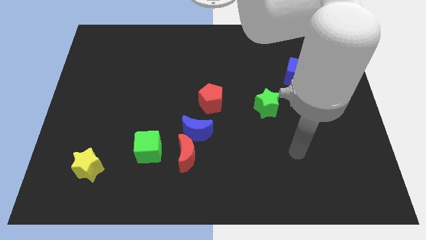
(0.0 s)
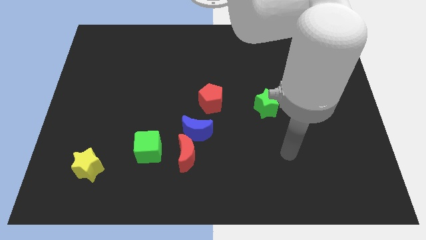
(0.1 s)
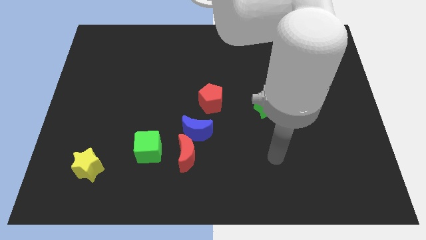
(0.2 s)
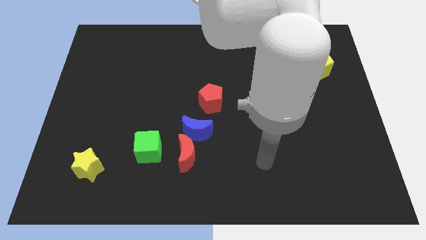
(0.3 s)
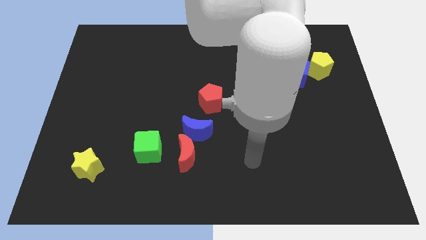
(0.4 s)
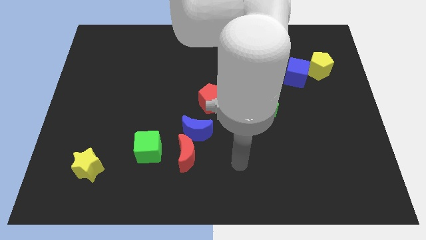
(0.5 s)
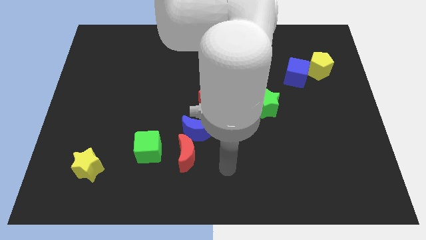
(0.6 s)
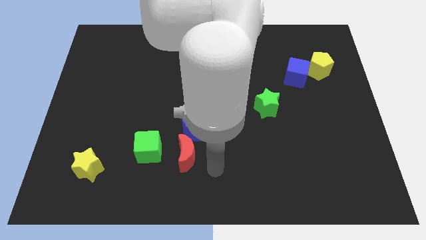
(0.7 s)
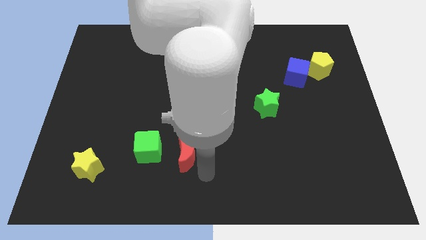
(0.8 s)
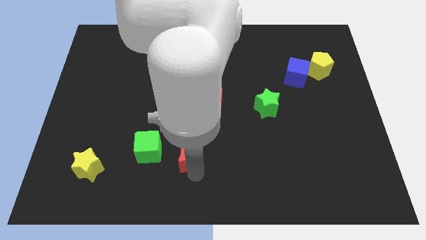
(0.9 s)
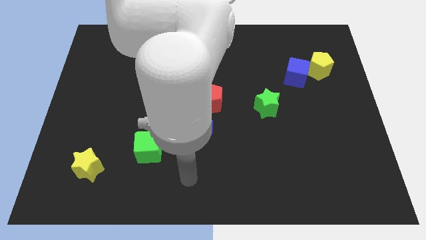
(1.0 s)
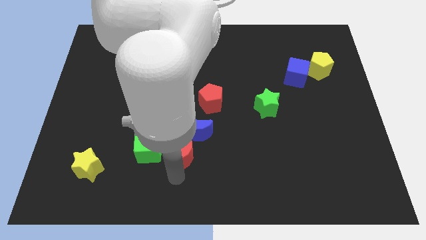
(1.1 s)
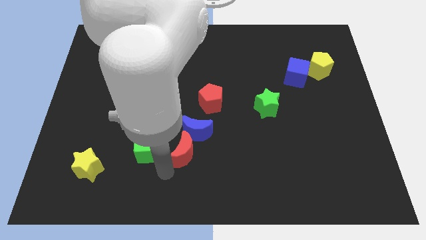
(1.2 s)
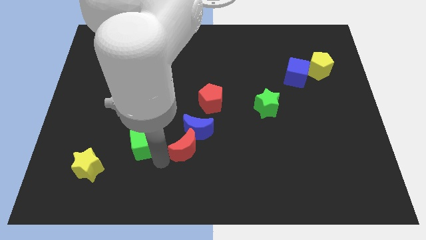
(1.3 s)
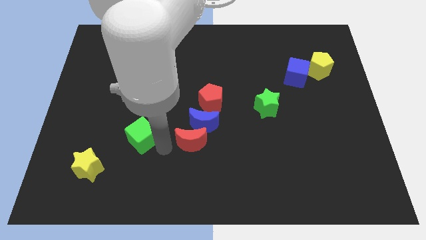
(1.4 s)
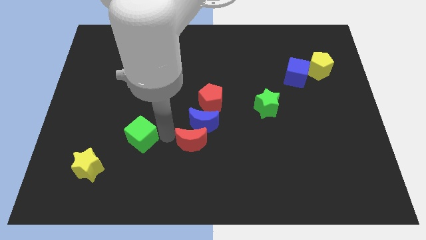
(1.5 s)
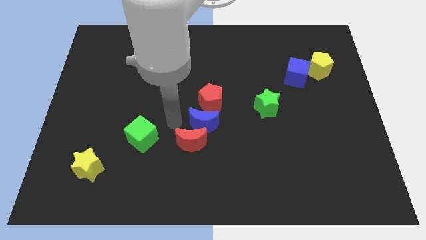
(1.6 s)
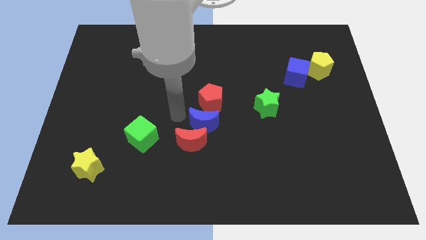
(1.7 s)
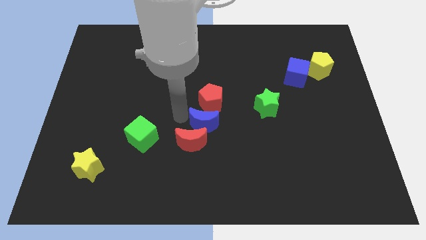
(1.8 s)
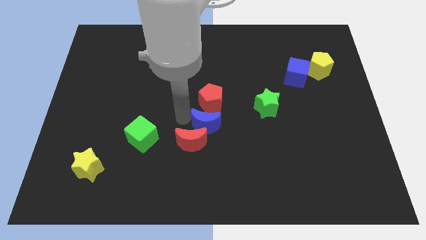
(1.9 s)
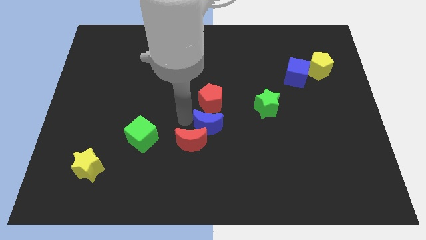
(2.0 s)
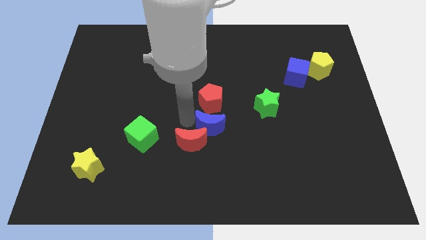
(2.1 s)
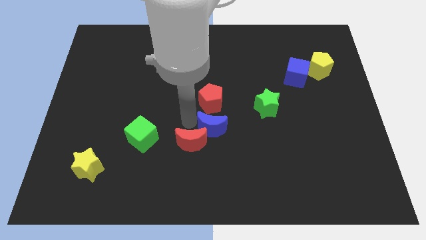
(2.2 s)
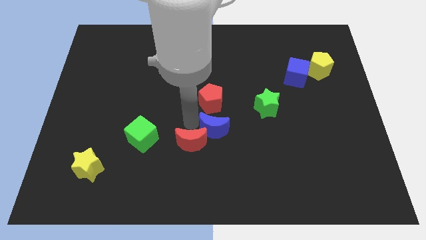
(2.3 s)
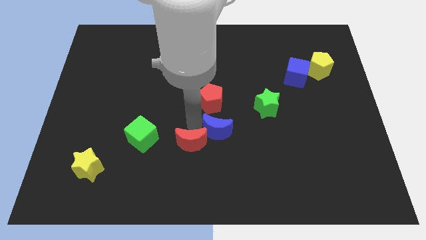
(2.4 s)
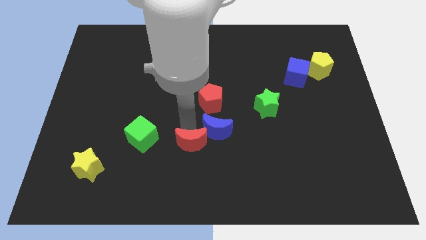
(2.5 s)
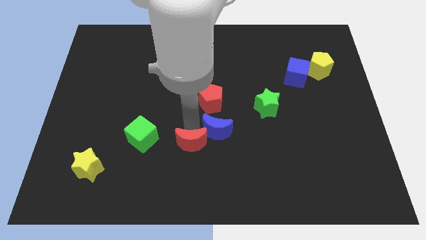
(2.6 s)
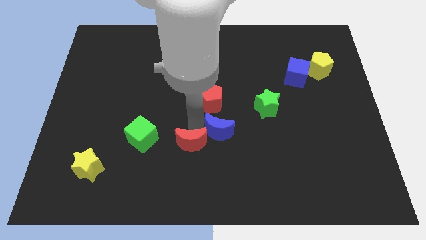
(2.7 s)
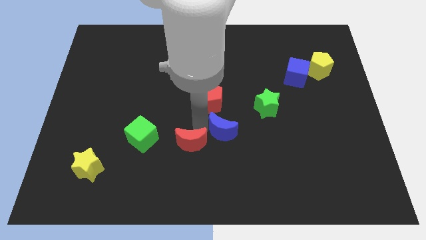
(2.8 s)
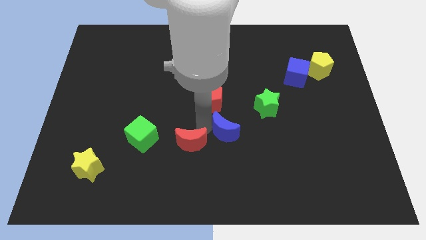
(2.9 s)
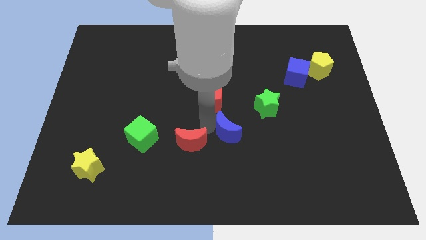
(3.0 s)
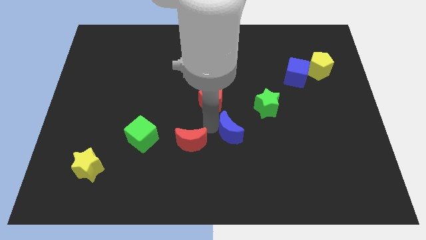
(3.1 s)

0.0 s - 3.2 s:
move the blue moon right a bit

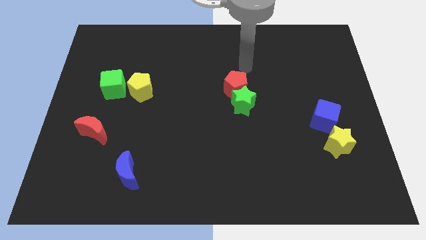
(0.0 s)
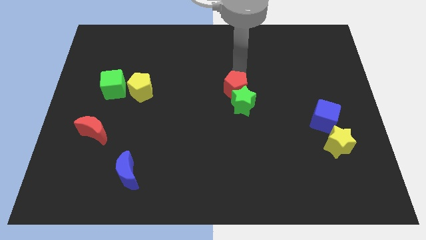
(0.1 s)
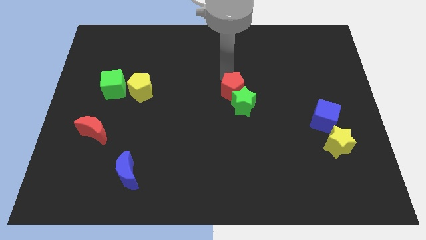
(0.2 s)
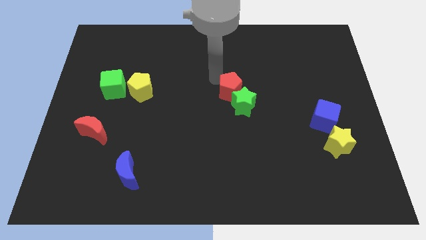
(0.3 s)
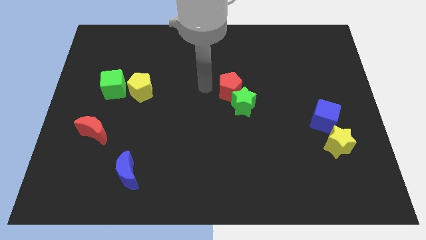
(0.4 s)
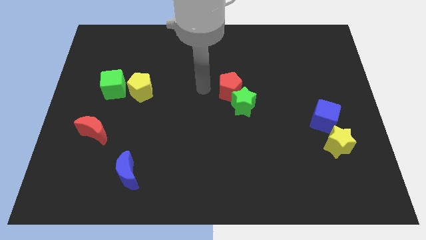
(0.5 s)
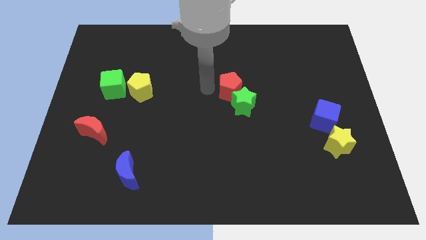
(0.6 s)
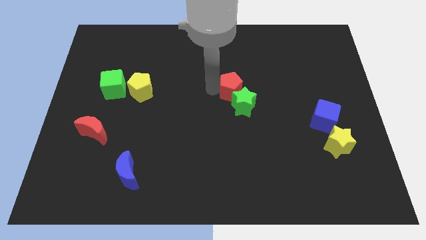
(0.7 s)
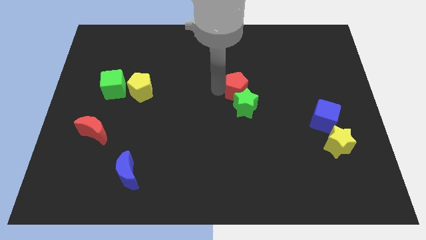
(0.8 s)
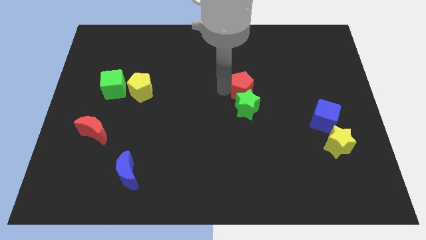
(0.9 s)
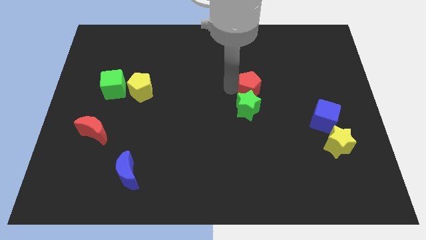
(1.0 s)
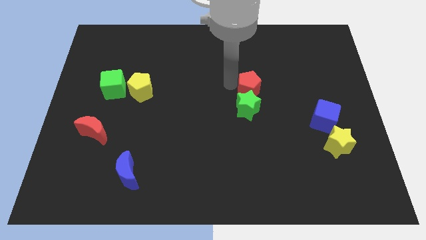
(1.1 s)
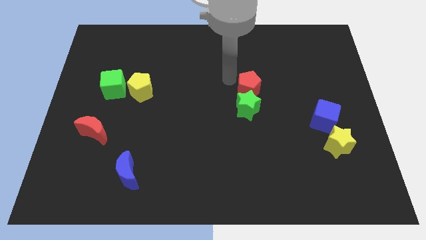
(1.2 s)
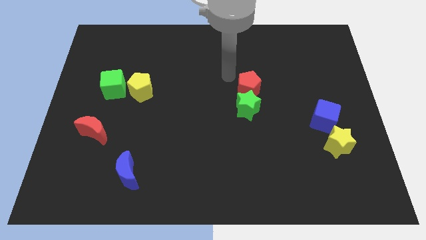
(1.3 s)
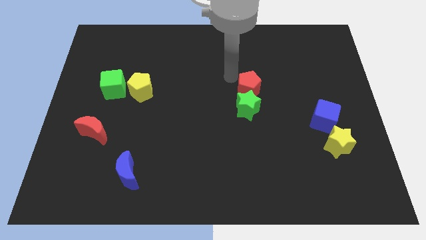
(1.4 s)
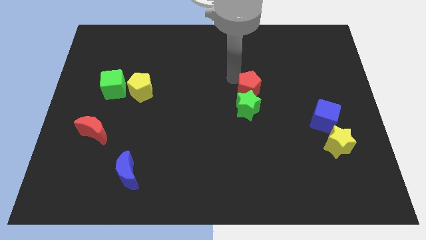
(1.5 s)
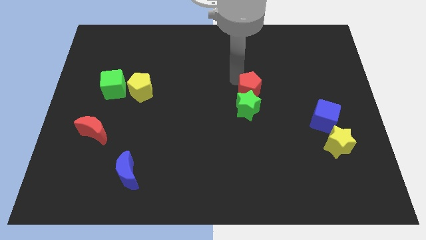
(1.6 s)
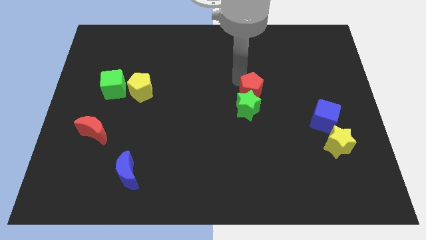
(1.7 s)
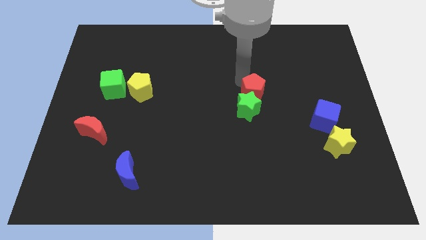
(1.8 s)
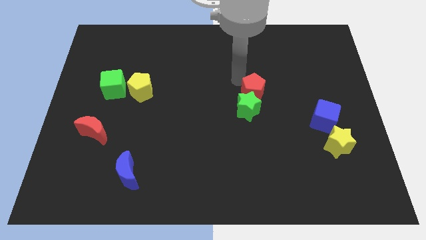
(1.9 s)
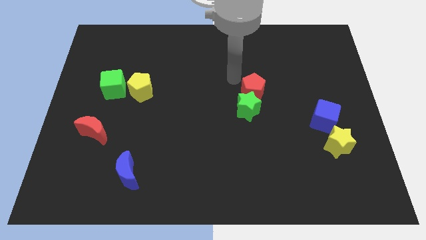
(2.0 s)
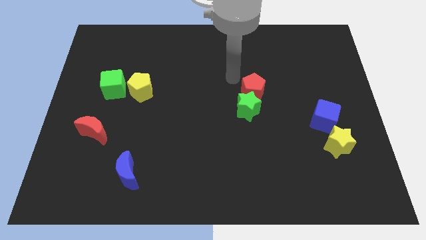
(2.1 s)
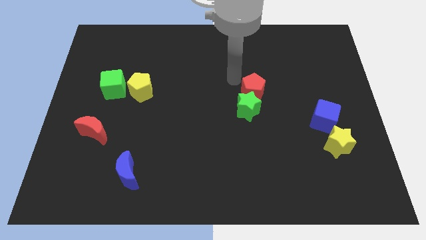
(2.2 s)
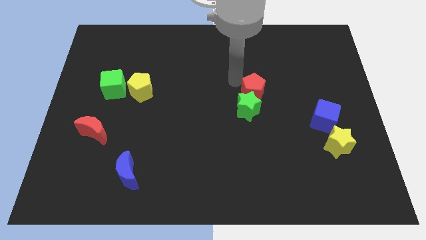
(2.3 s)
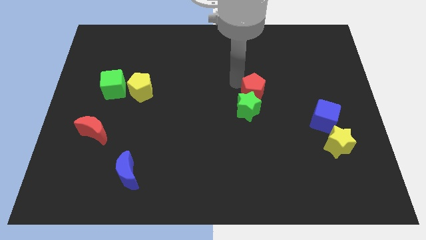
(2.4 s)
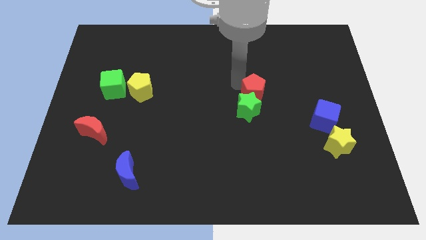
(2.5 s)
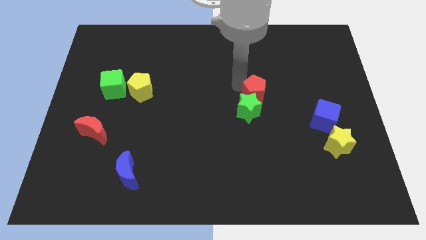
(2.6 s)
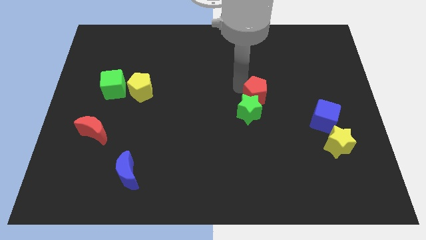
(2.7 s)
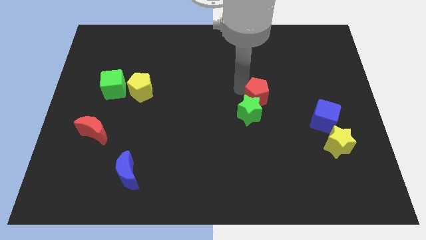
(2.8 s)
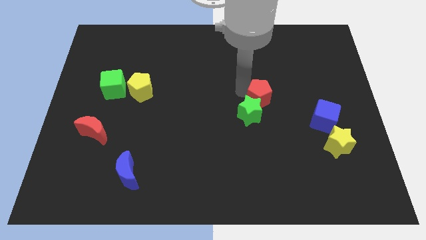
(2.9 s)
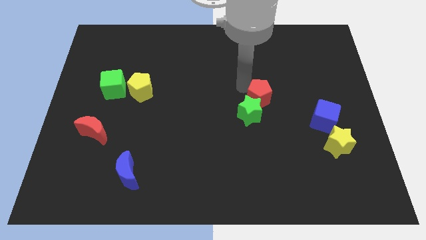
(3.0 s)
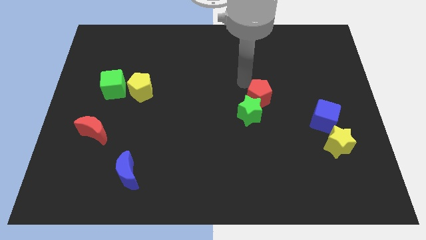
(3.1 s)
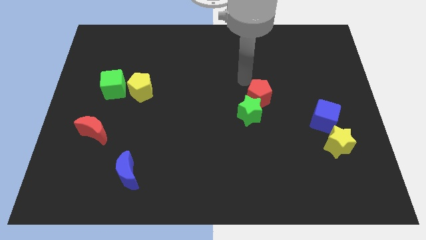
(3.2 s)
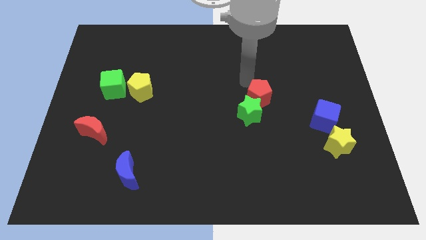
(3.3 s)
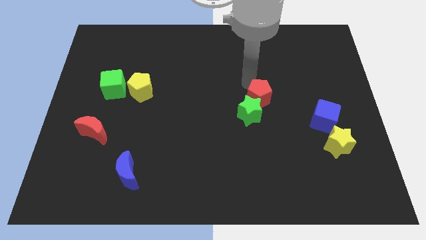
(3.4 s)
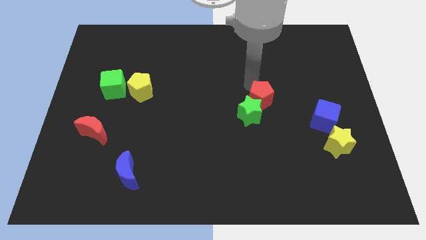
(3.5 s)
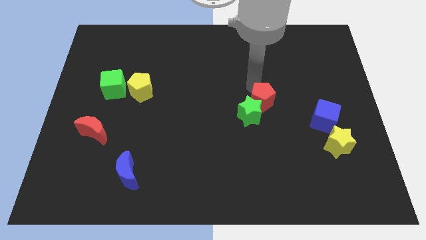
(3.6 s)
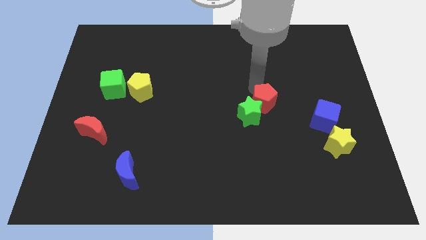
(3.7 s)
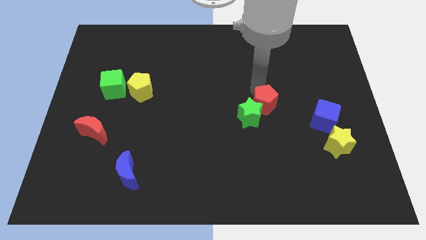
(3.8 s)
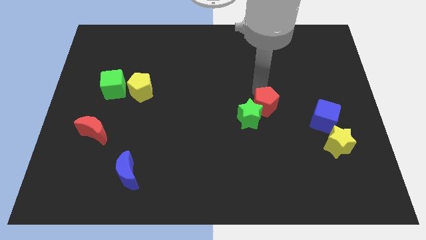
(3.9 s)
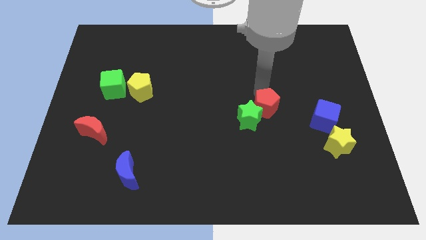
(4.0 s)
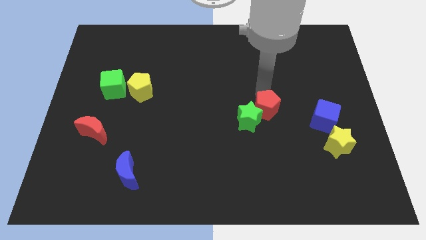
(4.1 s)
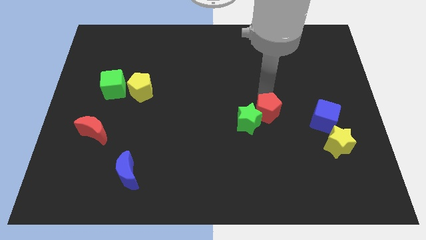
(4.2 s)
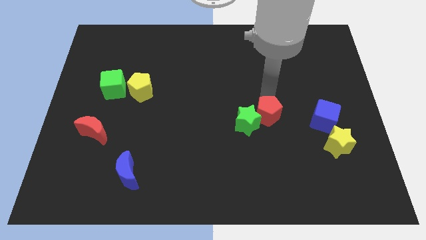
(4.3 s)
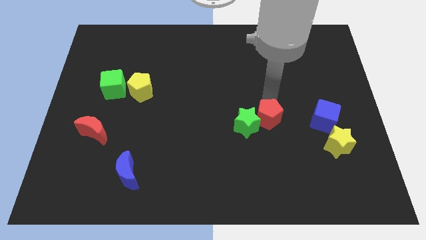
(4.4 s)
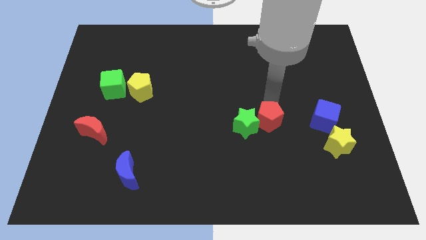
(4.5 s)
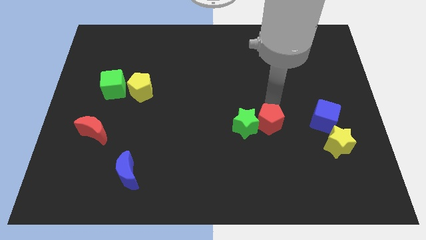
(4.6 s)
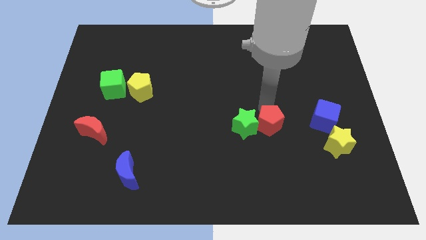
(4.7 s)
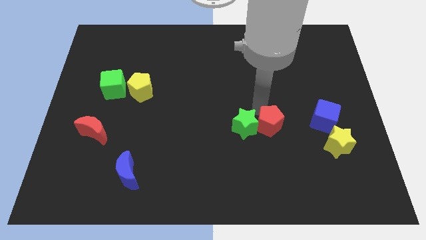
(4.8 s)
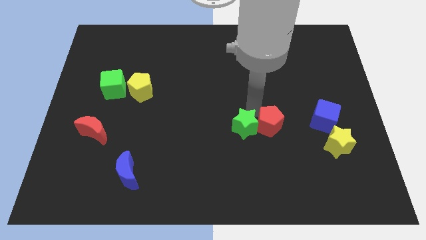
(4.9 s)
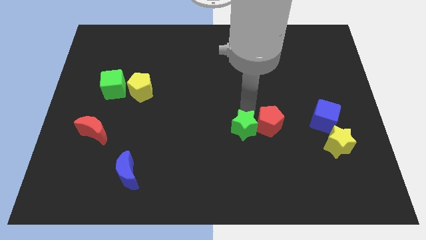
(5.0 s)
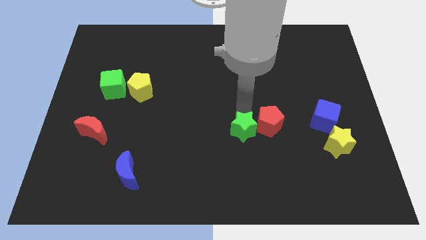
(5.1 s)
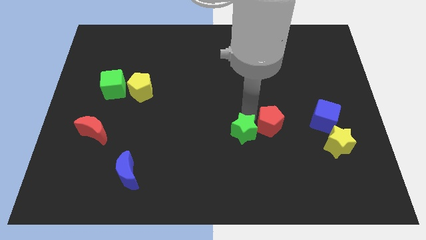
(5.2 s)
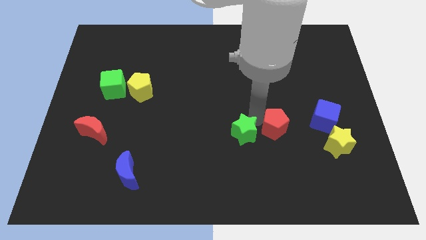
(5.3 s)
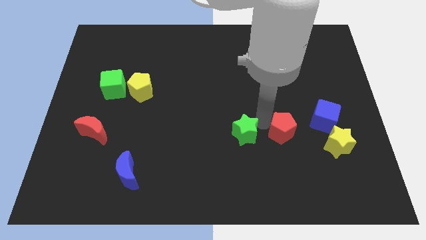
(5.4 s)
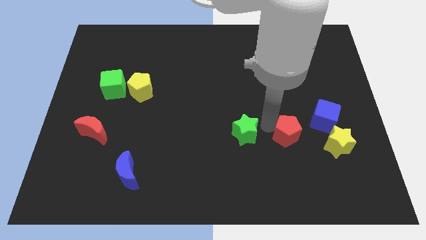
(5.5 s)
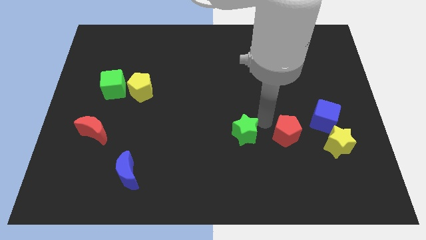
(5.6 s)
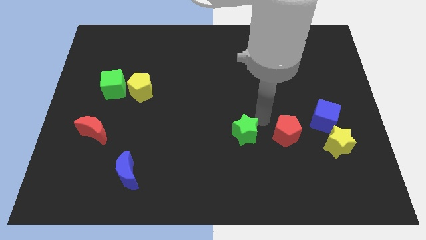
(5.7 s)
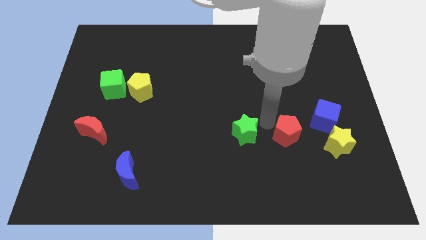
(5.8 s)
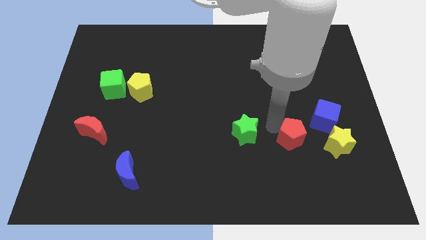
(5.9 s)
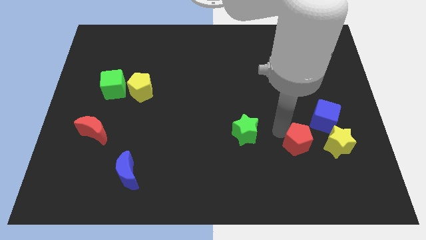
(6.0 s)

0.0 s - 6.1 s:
move the red pentagon diagonally downwards and to the right
